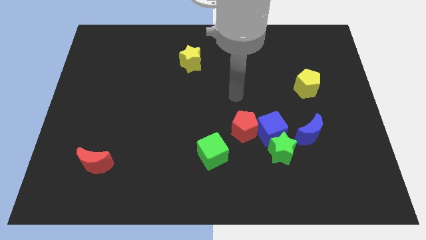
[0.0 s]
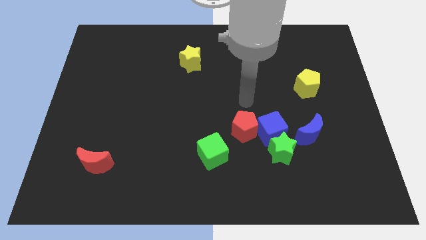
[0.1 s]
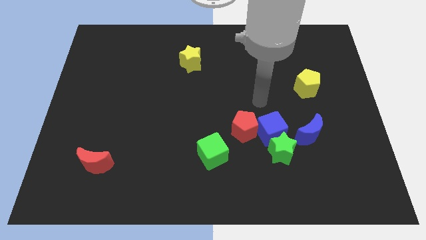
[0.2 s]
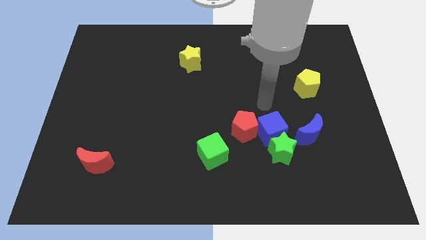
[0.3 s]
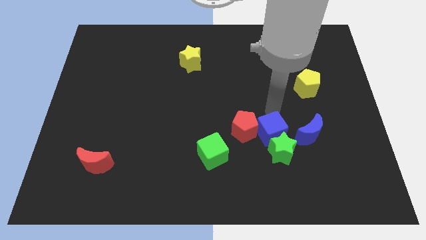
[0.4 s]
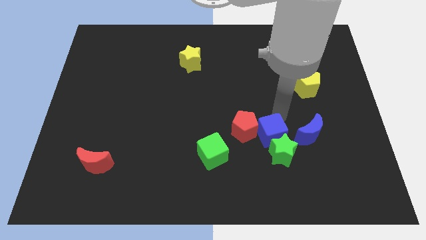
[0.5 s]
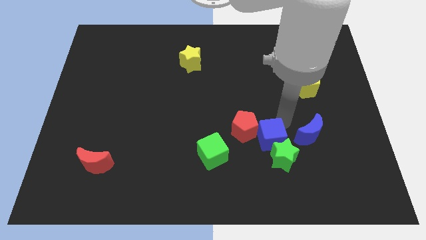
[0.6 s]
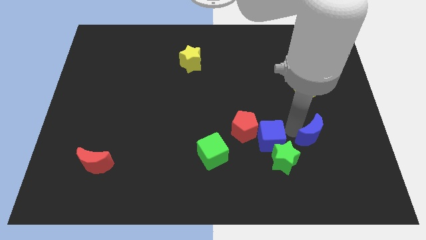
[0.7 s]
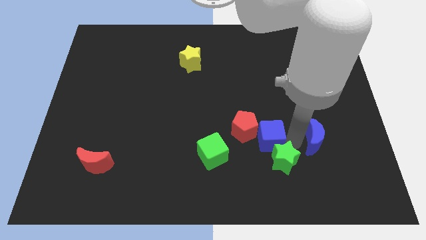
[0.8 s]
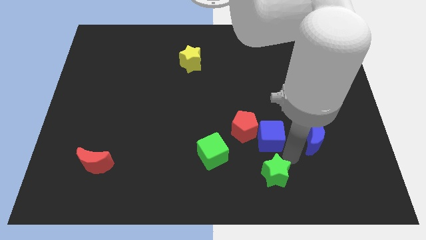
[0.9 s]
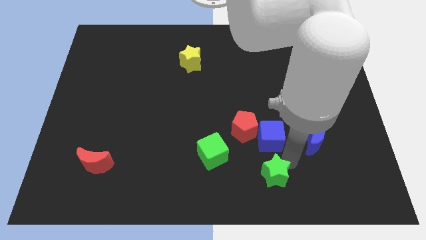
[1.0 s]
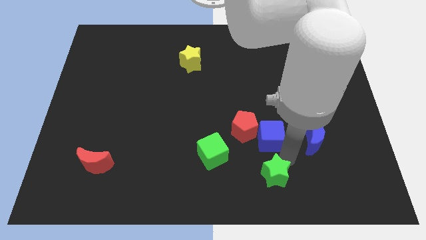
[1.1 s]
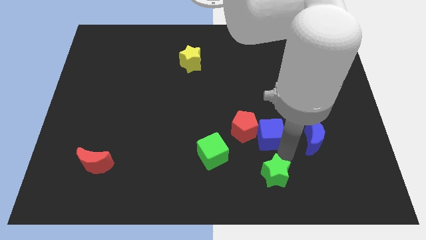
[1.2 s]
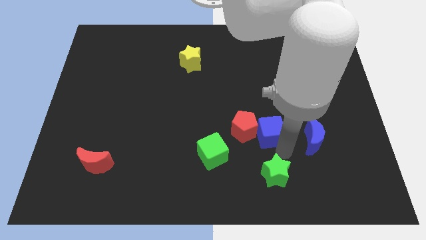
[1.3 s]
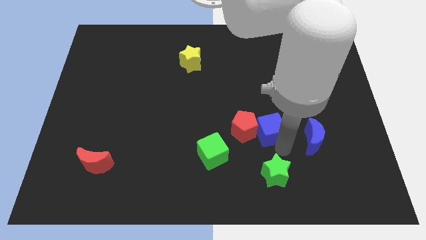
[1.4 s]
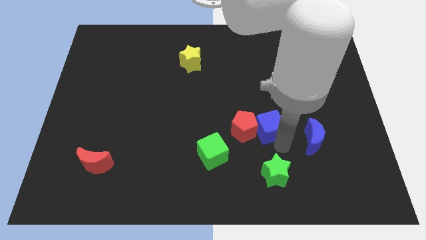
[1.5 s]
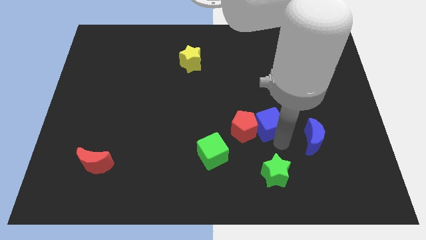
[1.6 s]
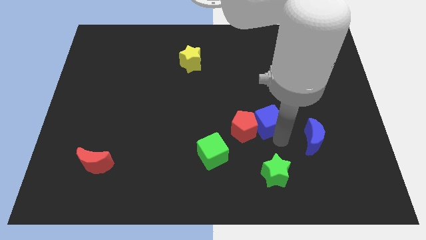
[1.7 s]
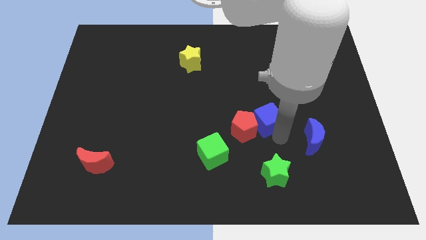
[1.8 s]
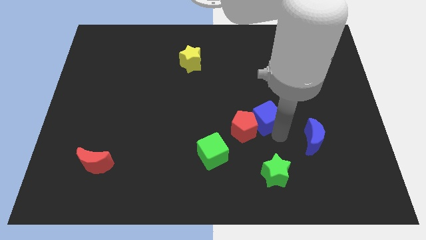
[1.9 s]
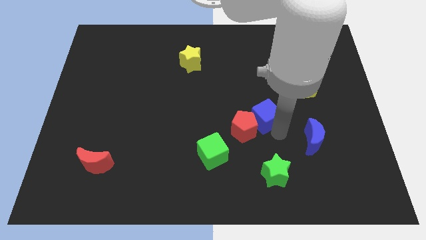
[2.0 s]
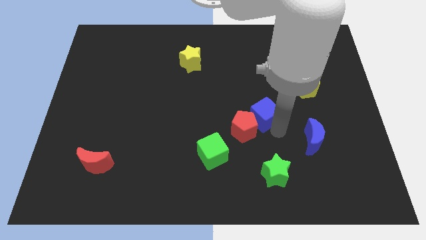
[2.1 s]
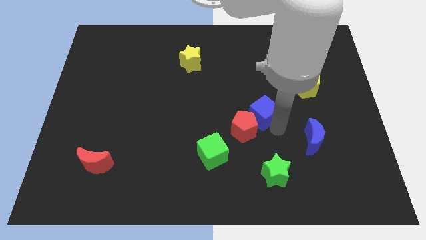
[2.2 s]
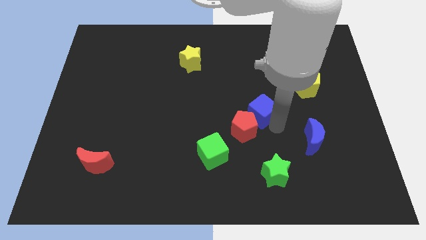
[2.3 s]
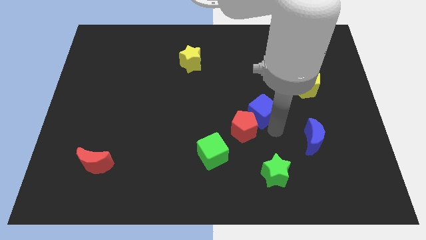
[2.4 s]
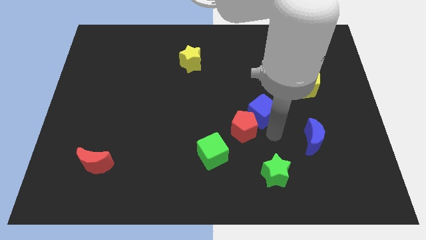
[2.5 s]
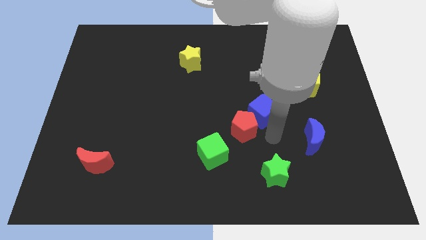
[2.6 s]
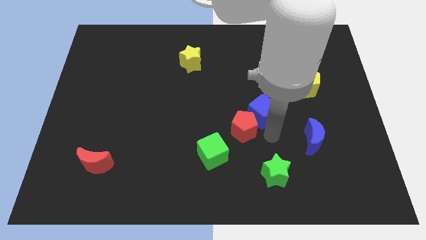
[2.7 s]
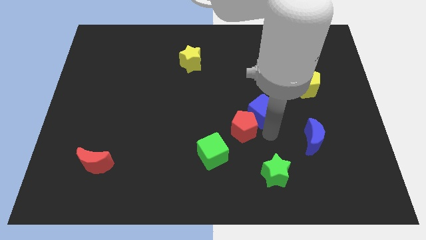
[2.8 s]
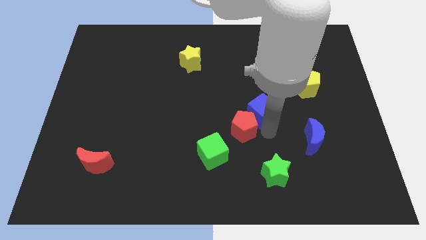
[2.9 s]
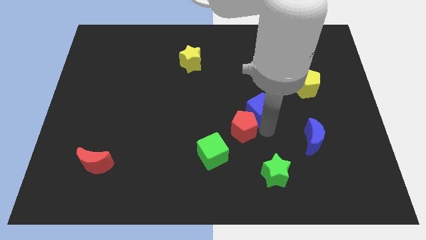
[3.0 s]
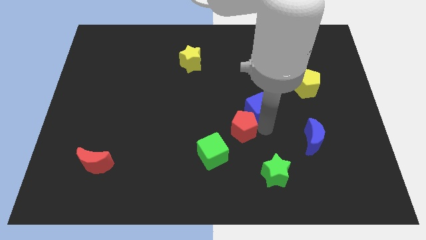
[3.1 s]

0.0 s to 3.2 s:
move the blue cube away from the green star, red pentagon, and blue moon

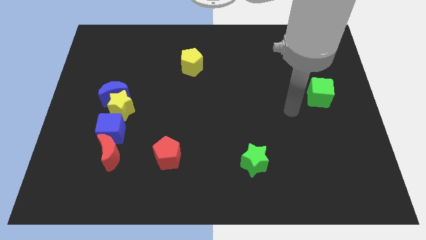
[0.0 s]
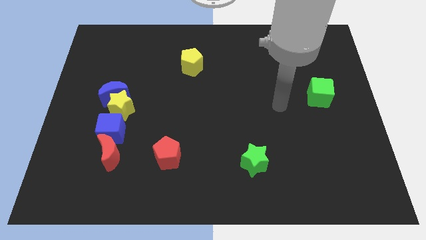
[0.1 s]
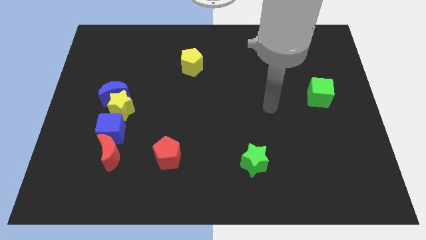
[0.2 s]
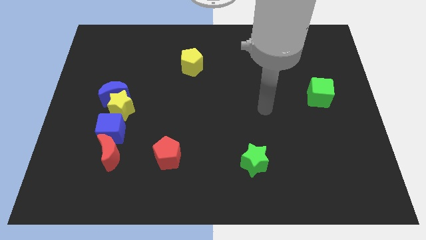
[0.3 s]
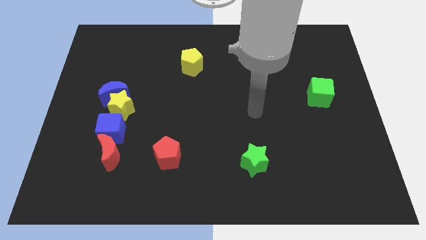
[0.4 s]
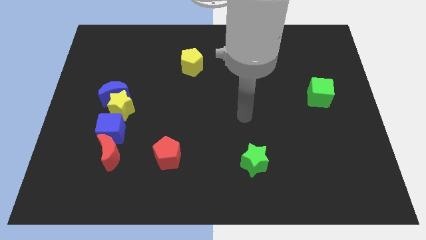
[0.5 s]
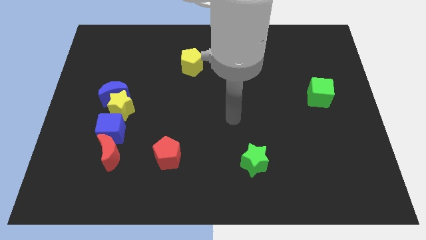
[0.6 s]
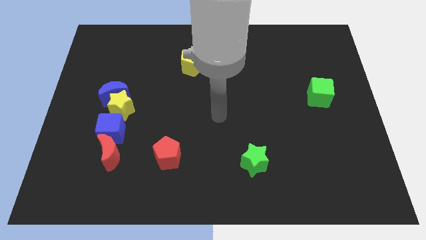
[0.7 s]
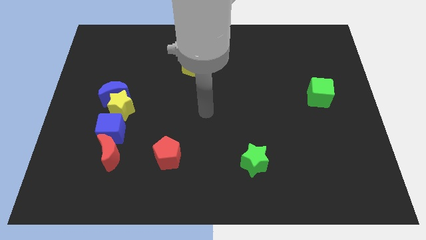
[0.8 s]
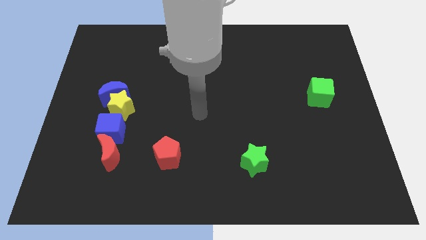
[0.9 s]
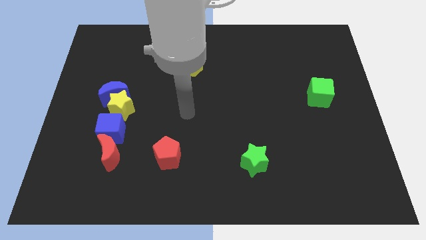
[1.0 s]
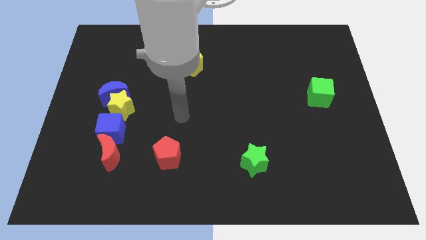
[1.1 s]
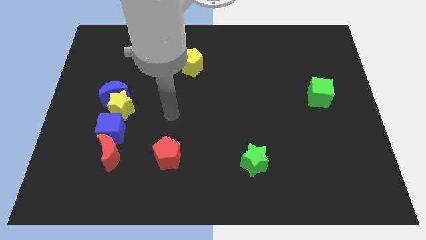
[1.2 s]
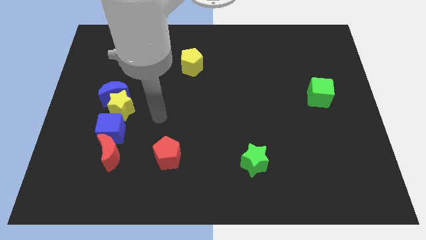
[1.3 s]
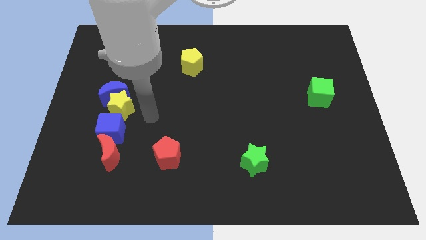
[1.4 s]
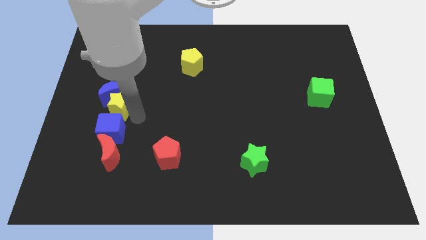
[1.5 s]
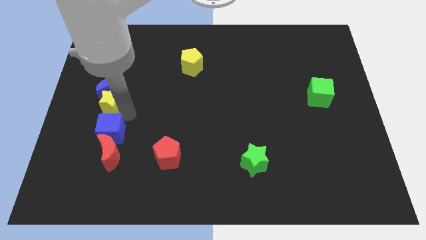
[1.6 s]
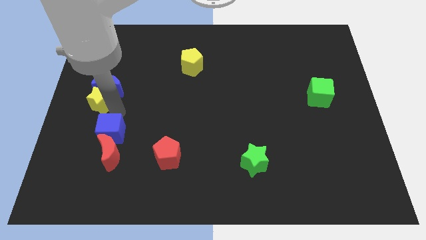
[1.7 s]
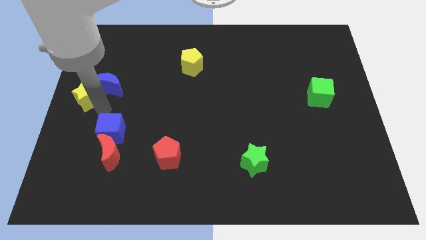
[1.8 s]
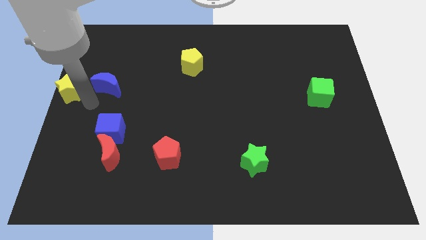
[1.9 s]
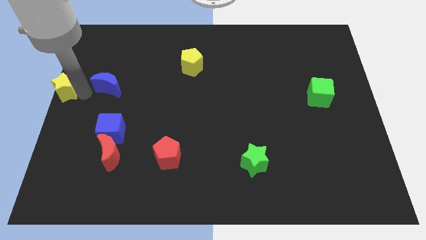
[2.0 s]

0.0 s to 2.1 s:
pull the blue moon apart from the yellow star

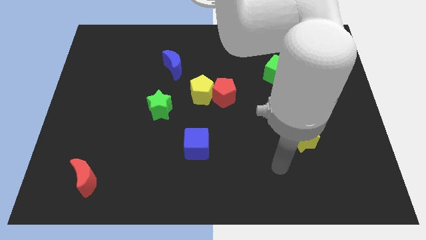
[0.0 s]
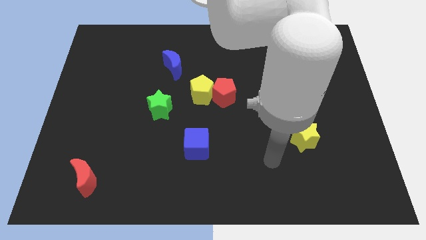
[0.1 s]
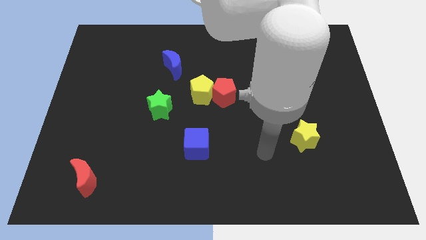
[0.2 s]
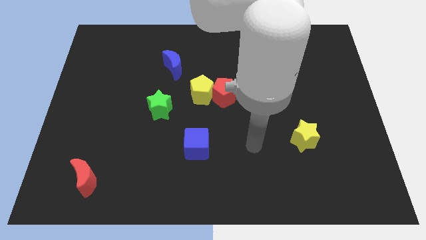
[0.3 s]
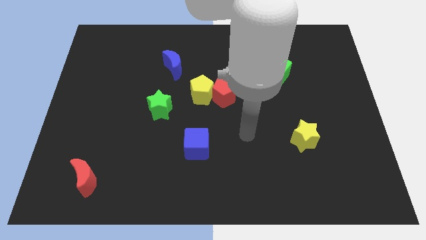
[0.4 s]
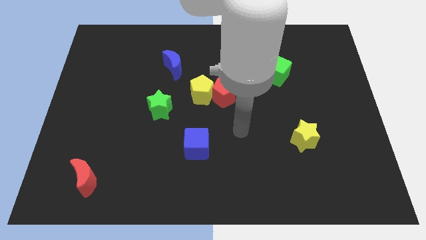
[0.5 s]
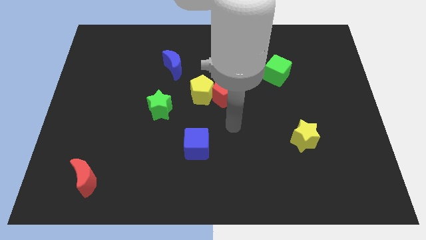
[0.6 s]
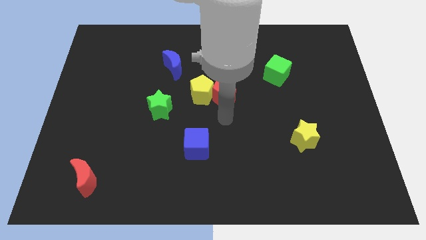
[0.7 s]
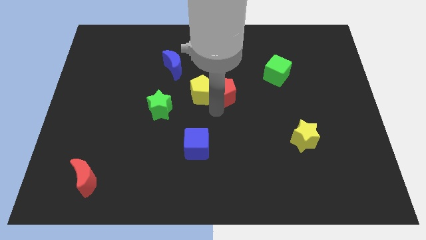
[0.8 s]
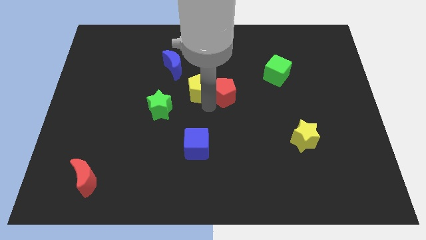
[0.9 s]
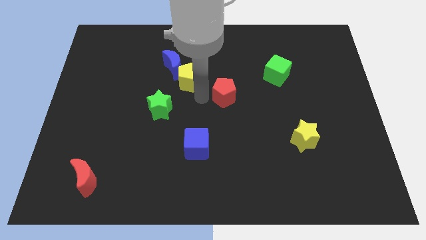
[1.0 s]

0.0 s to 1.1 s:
move the red pentagon away from the yellow pentagon

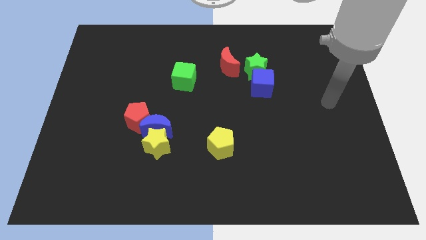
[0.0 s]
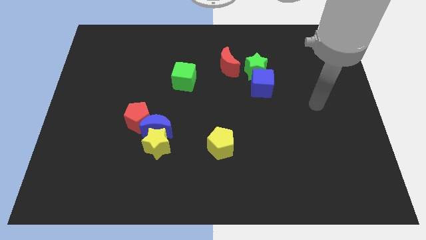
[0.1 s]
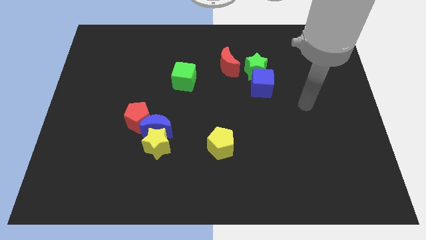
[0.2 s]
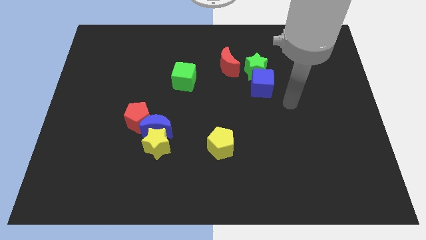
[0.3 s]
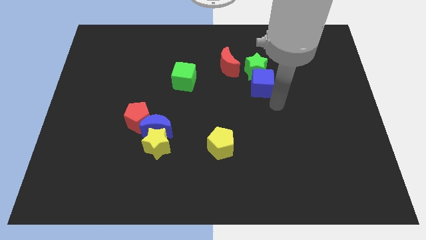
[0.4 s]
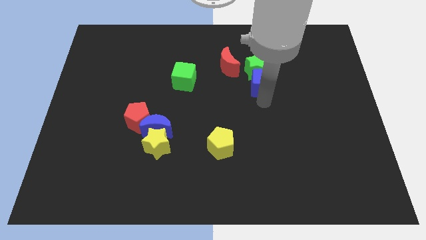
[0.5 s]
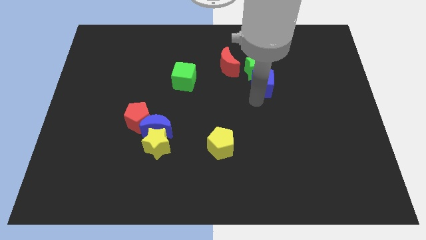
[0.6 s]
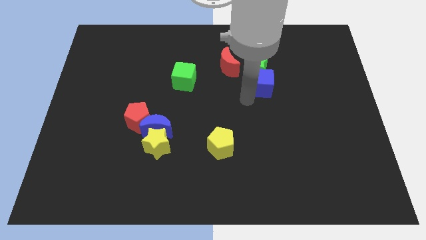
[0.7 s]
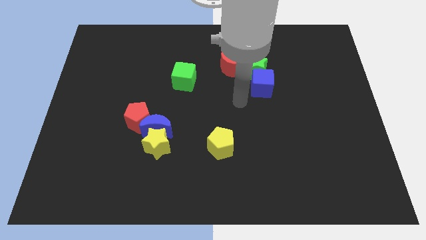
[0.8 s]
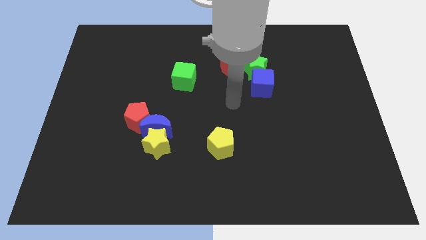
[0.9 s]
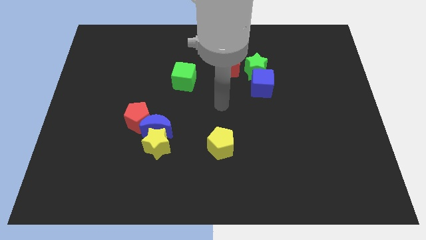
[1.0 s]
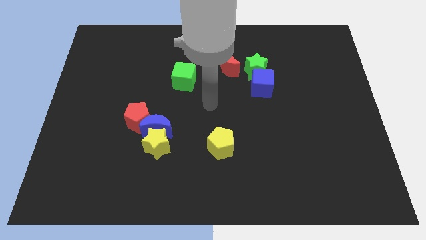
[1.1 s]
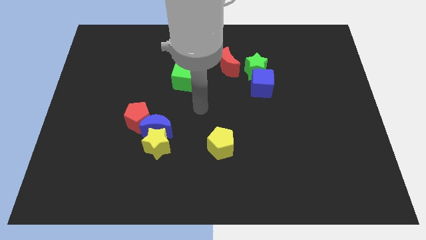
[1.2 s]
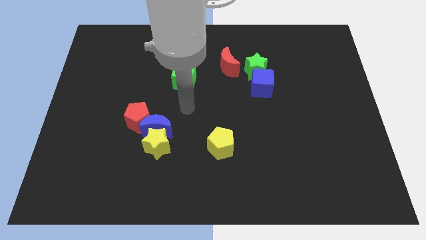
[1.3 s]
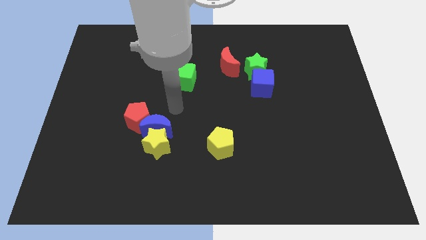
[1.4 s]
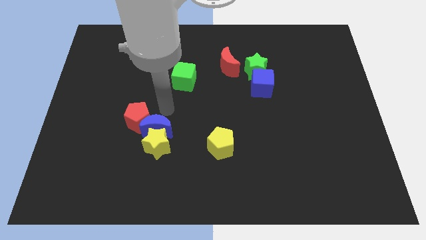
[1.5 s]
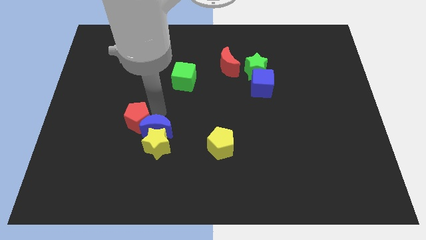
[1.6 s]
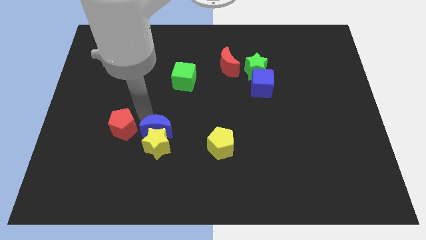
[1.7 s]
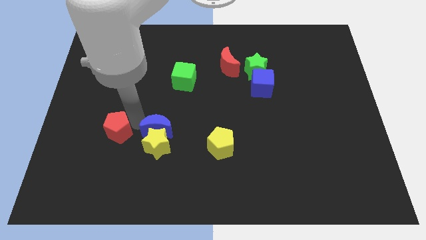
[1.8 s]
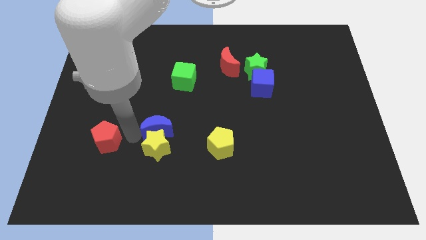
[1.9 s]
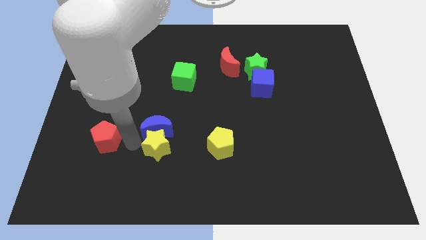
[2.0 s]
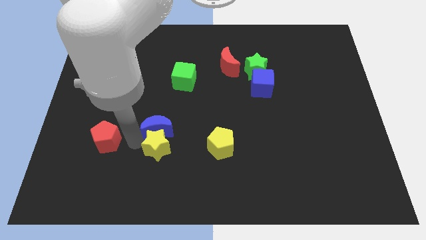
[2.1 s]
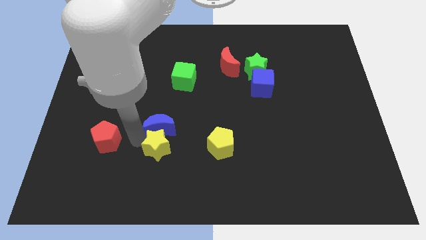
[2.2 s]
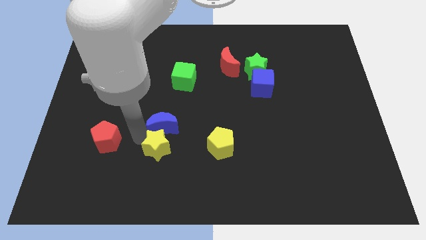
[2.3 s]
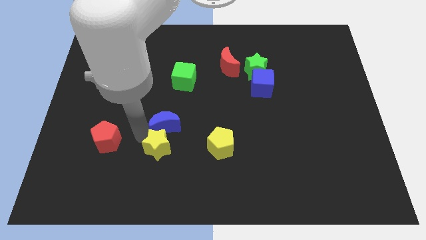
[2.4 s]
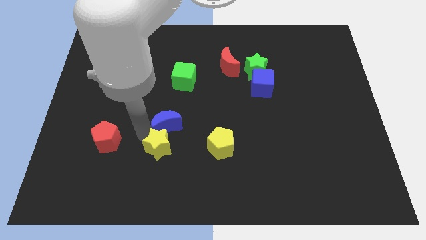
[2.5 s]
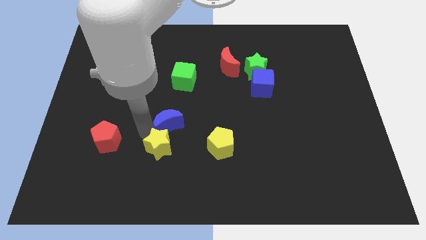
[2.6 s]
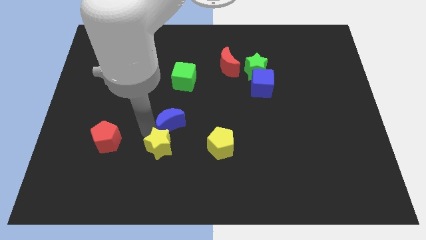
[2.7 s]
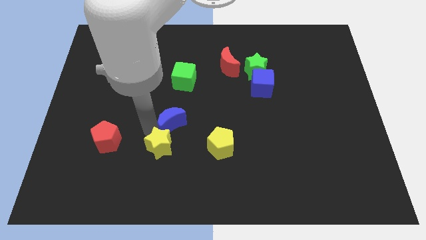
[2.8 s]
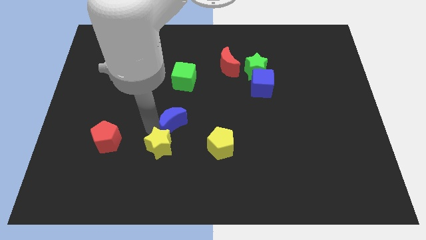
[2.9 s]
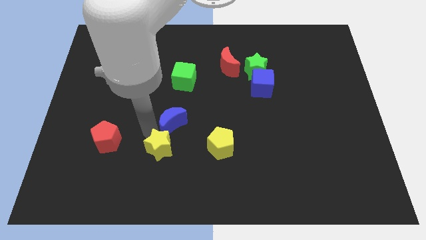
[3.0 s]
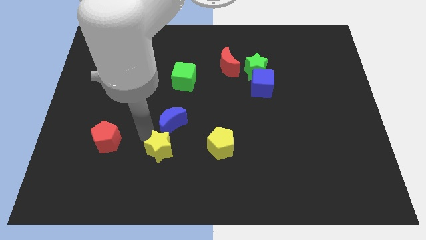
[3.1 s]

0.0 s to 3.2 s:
separate the blue moon from the yellow star and red pentagon

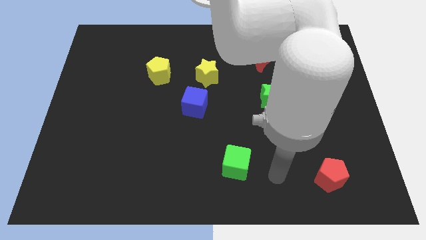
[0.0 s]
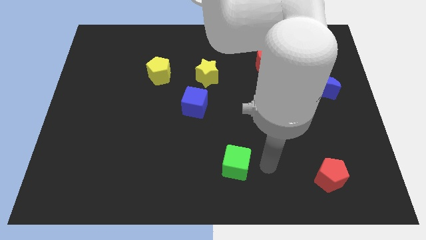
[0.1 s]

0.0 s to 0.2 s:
move the blue cube away from the yellow star
